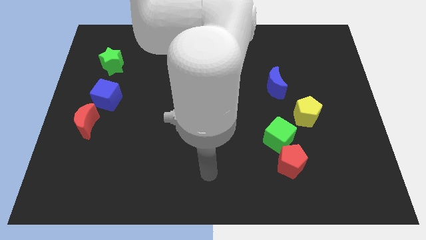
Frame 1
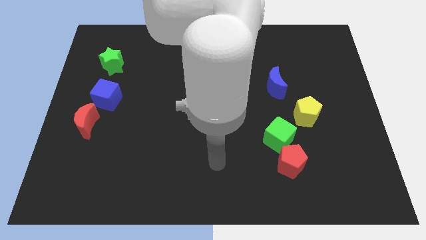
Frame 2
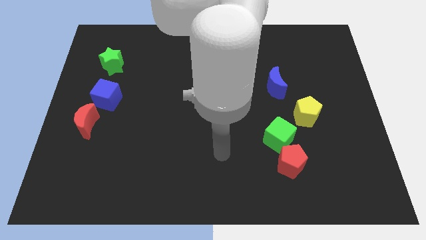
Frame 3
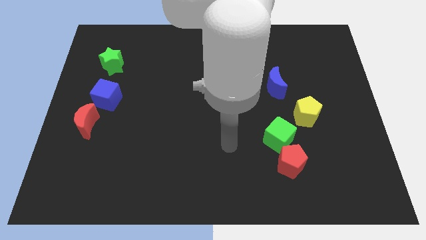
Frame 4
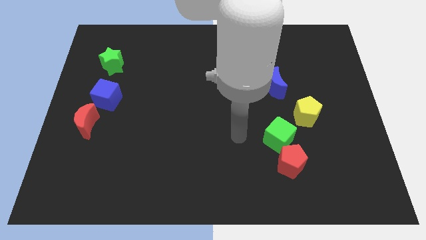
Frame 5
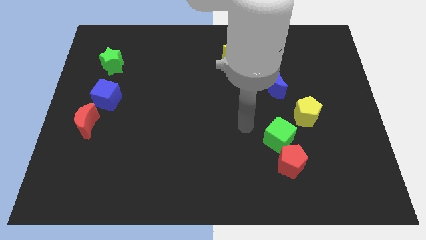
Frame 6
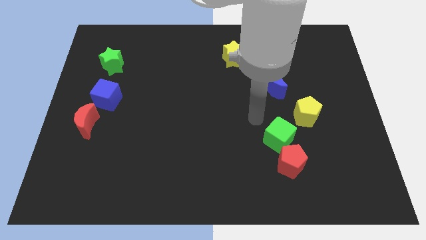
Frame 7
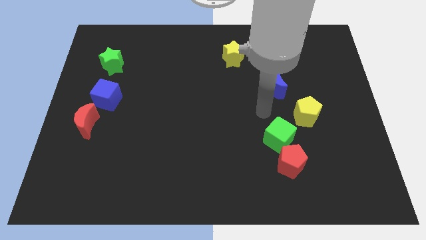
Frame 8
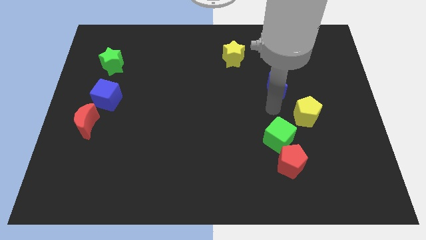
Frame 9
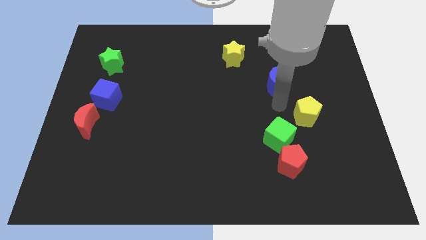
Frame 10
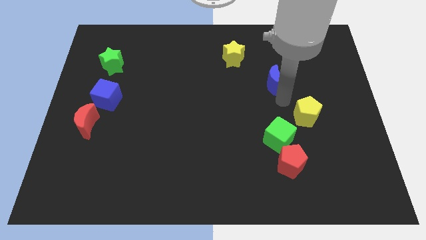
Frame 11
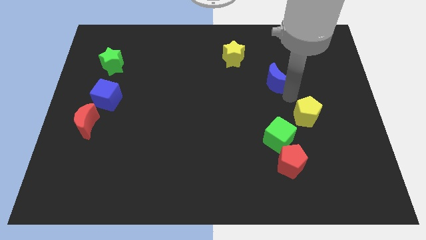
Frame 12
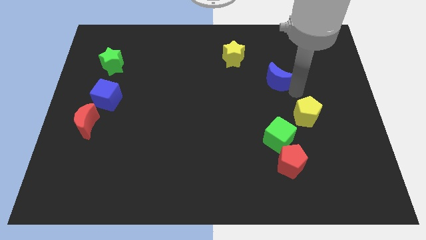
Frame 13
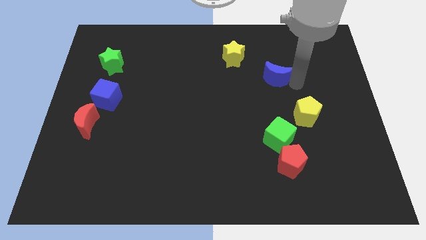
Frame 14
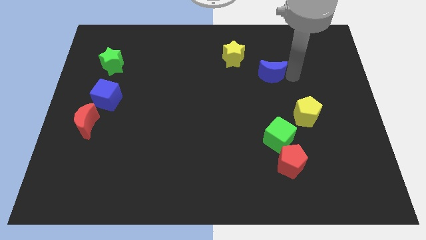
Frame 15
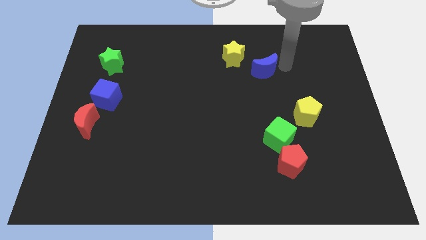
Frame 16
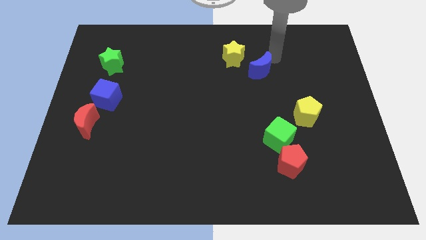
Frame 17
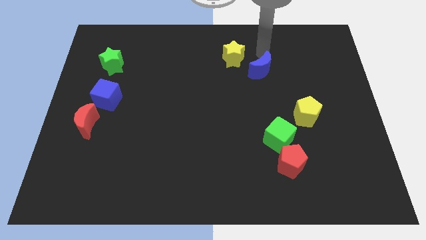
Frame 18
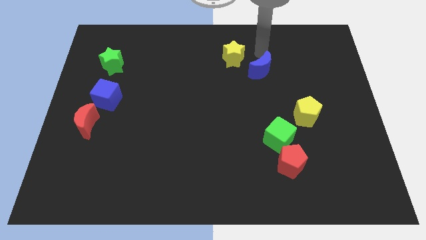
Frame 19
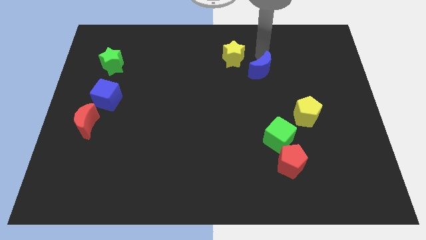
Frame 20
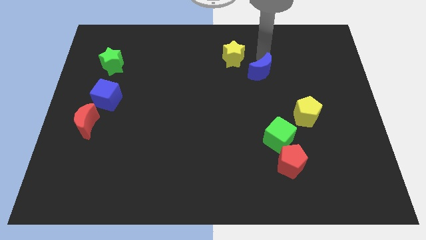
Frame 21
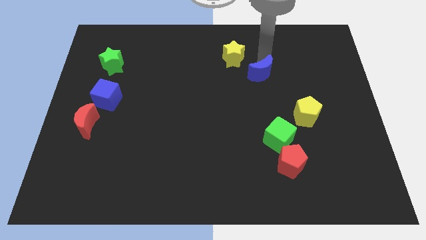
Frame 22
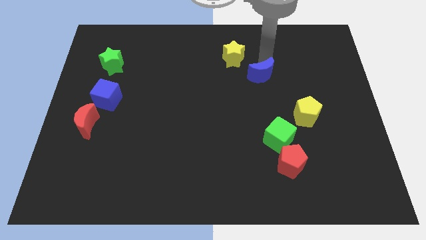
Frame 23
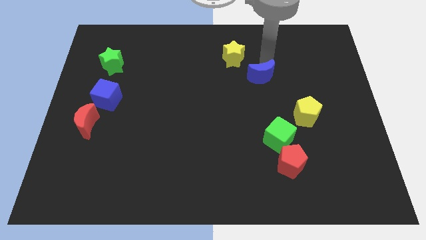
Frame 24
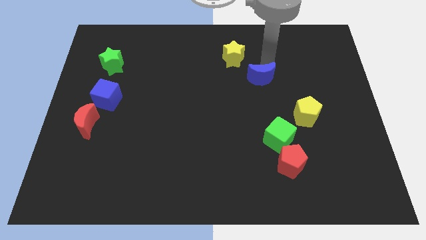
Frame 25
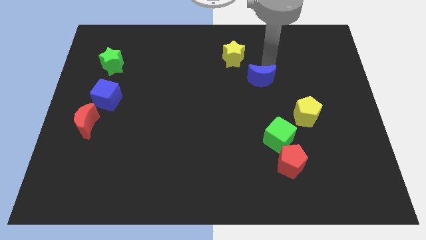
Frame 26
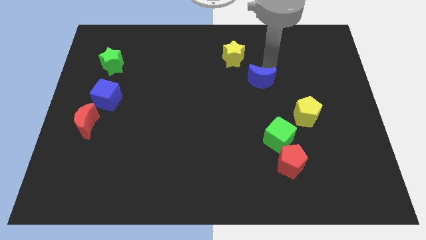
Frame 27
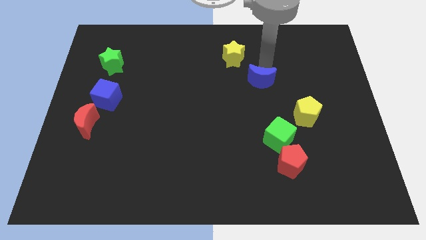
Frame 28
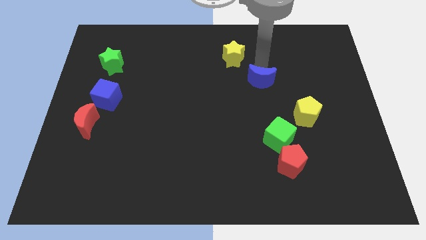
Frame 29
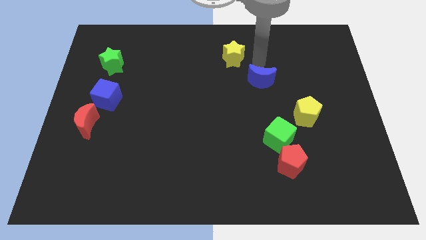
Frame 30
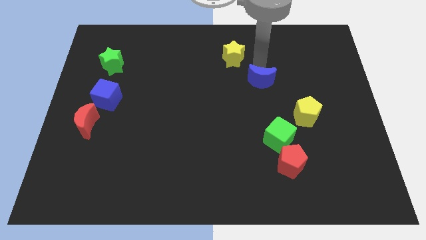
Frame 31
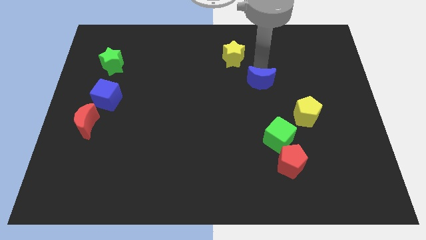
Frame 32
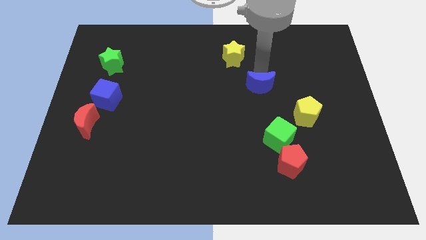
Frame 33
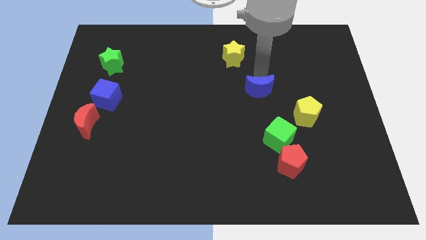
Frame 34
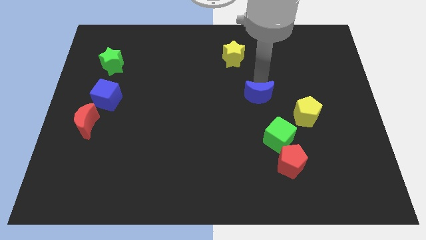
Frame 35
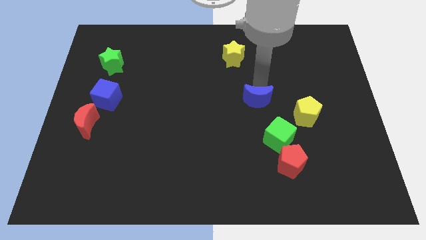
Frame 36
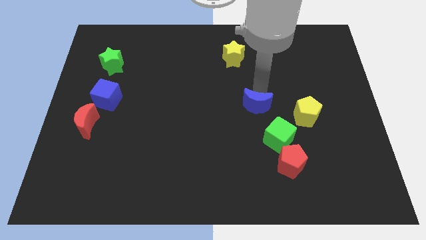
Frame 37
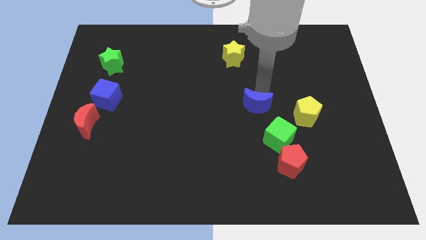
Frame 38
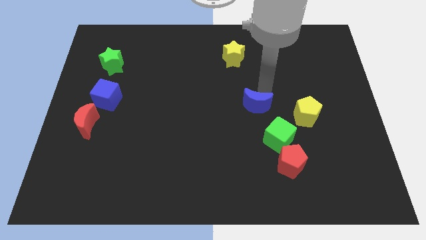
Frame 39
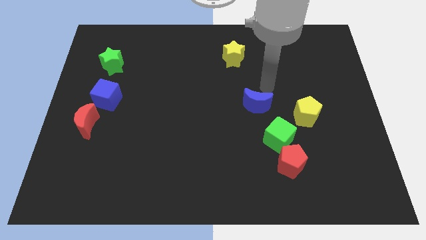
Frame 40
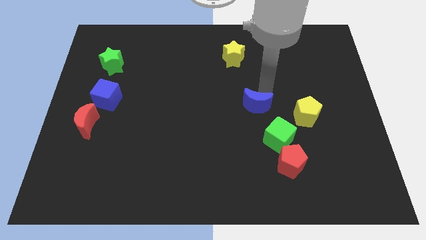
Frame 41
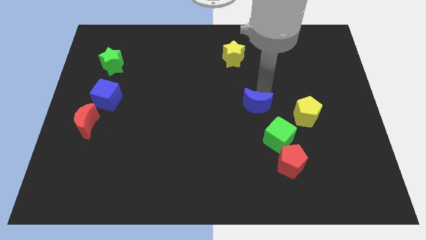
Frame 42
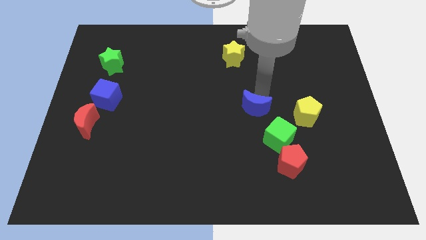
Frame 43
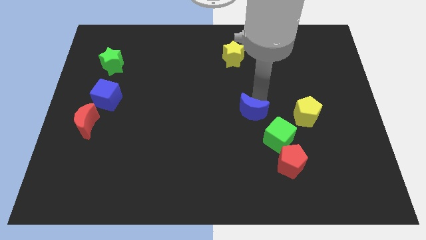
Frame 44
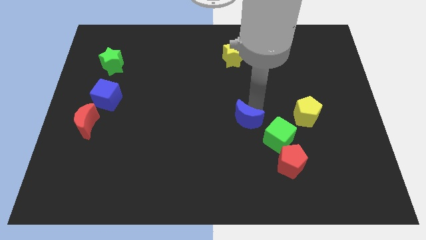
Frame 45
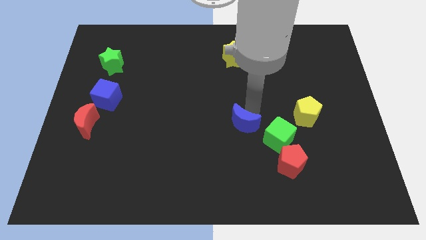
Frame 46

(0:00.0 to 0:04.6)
move the blue moon just left of the green cube

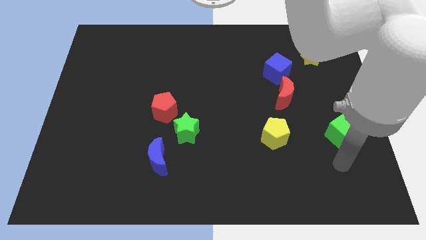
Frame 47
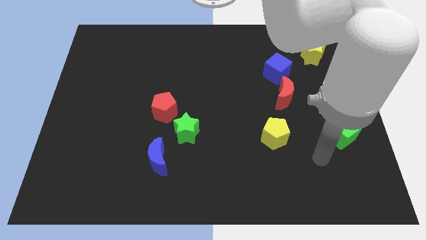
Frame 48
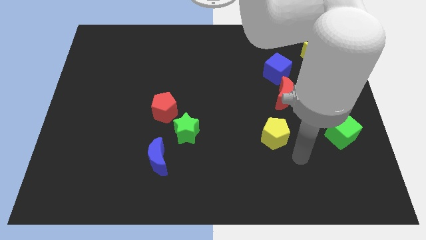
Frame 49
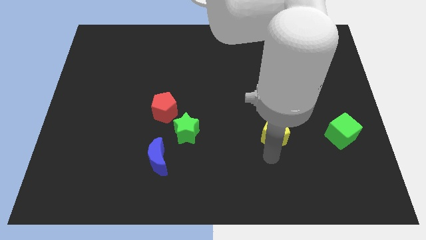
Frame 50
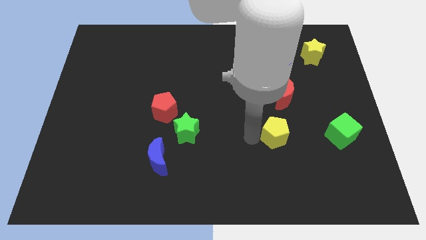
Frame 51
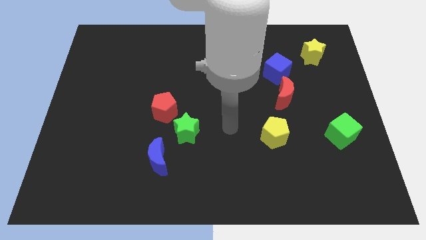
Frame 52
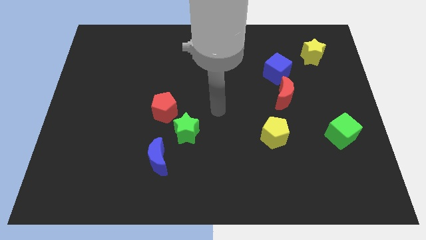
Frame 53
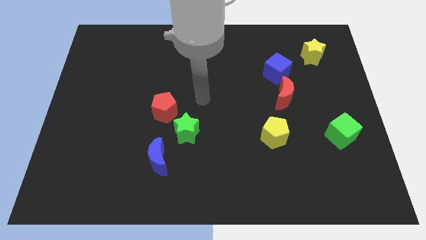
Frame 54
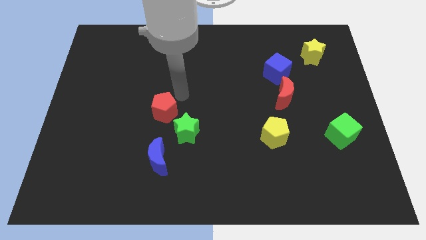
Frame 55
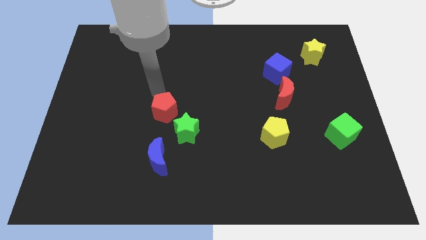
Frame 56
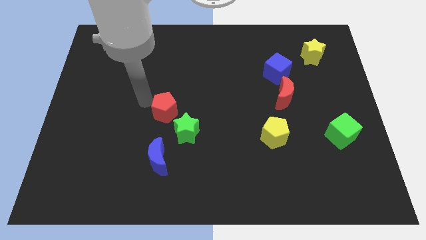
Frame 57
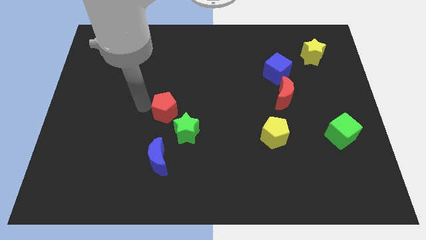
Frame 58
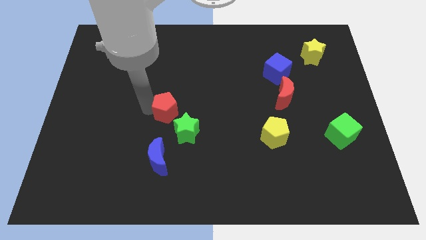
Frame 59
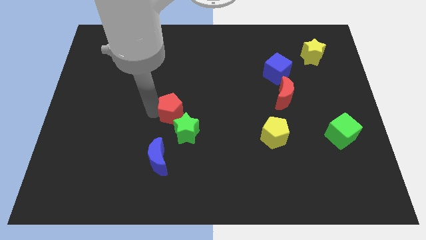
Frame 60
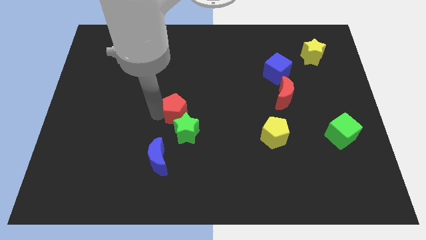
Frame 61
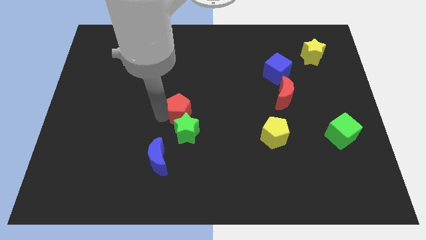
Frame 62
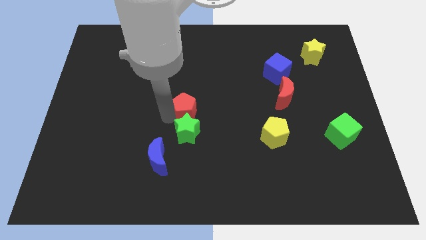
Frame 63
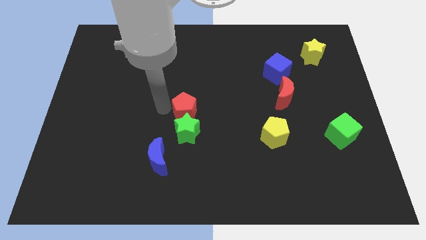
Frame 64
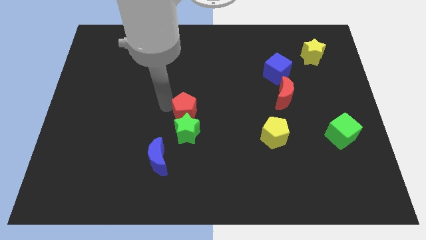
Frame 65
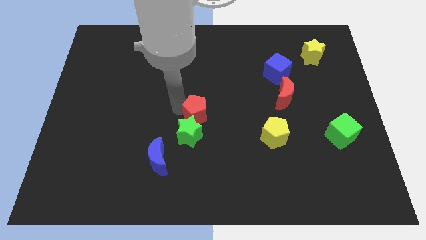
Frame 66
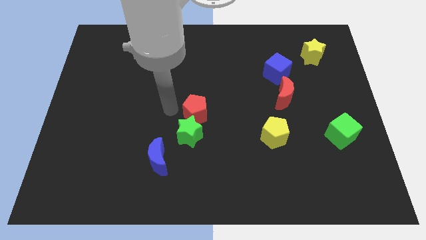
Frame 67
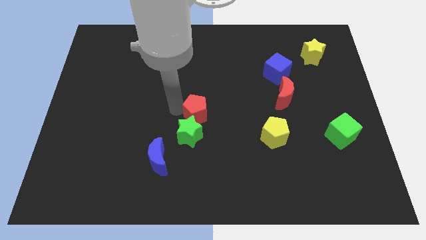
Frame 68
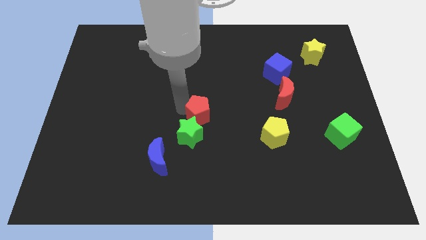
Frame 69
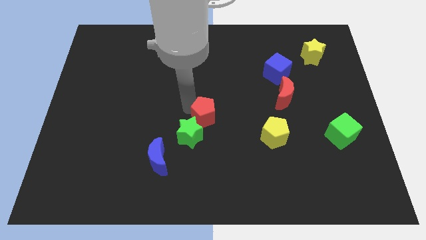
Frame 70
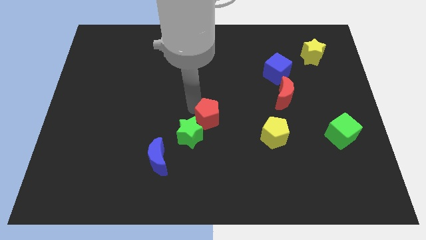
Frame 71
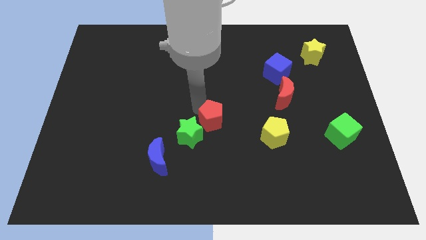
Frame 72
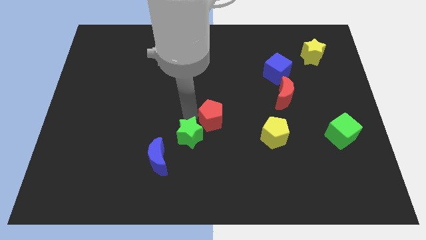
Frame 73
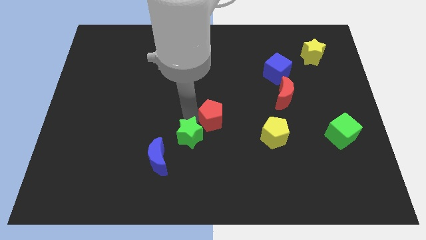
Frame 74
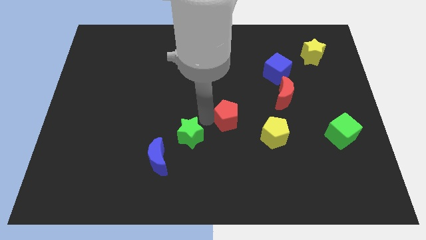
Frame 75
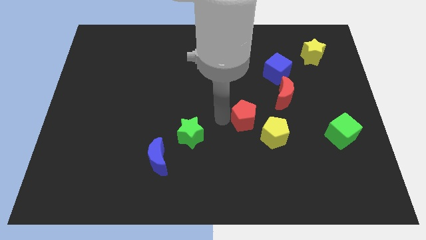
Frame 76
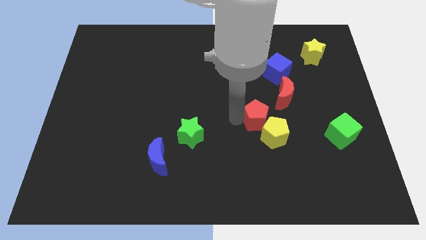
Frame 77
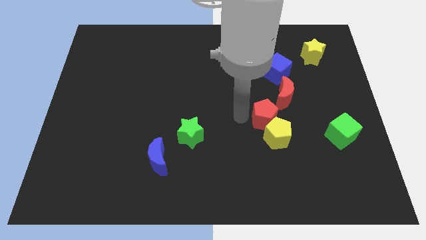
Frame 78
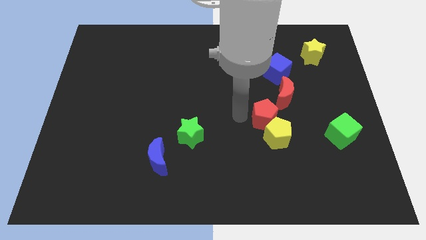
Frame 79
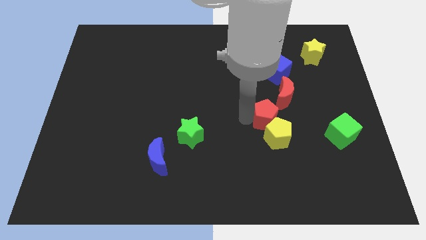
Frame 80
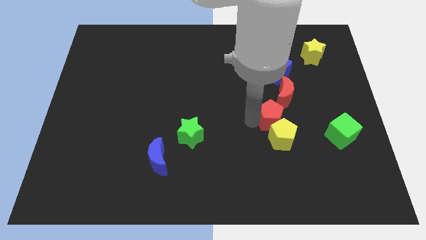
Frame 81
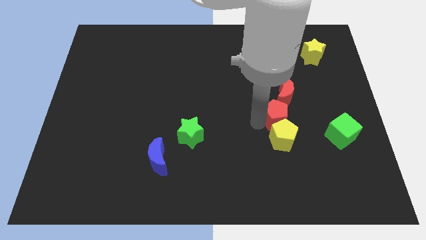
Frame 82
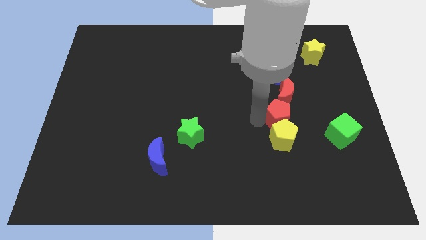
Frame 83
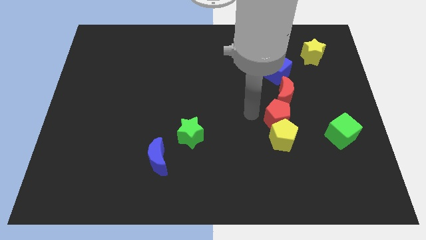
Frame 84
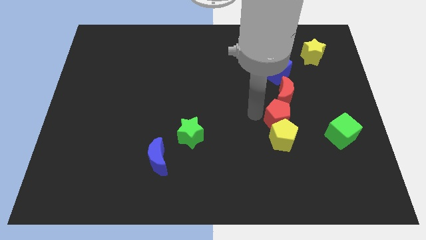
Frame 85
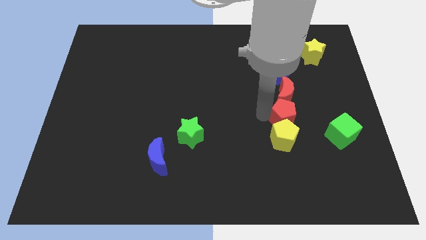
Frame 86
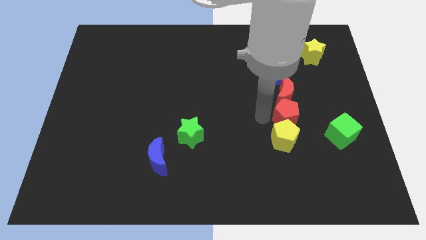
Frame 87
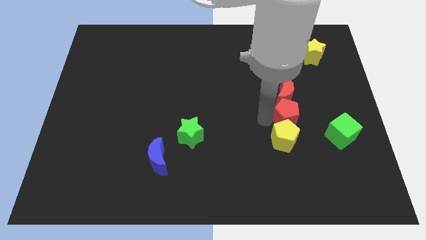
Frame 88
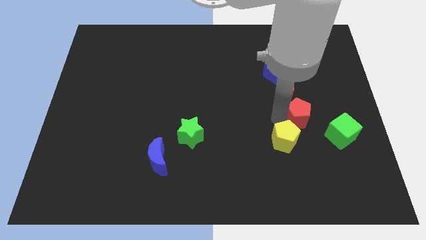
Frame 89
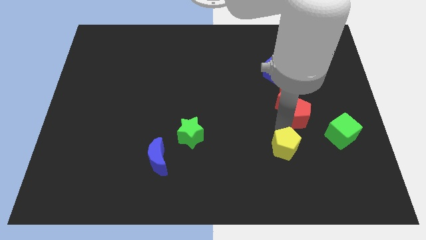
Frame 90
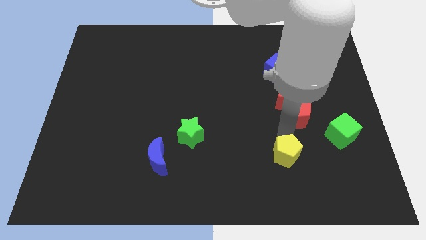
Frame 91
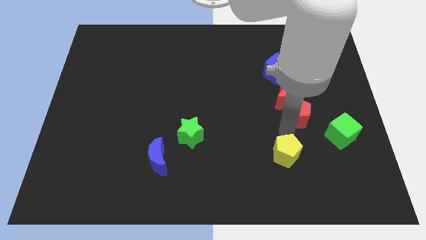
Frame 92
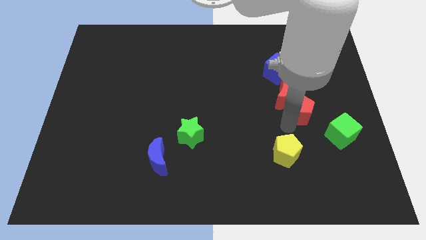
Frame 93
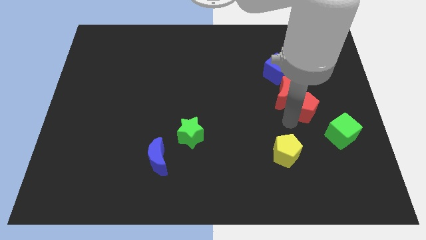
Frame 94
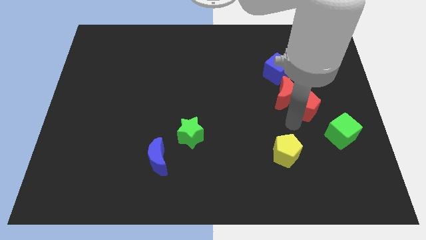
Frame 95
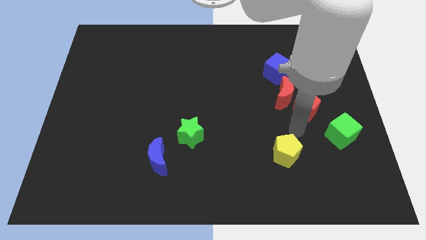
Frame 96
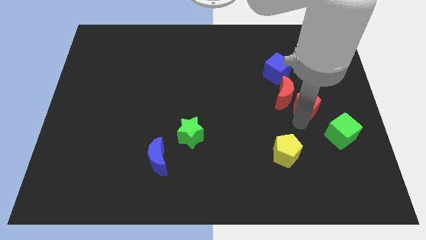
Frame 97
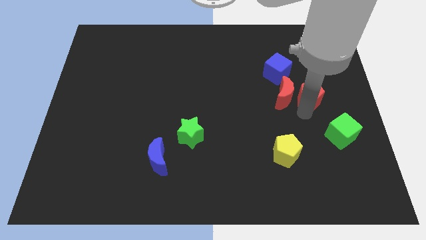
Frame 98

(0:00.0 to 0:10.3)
slide the red pentagon below the yellow star
